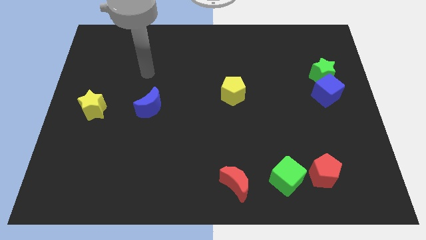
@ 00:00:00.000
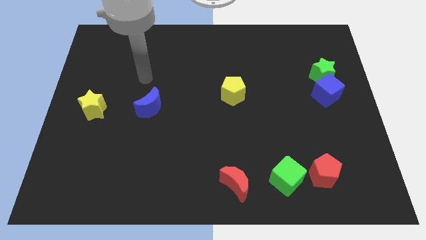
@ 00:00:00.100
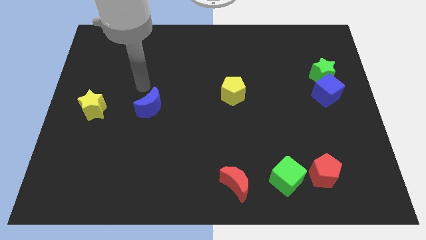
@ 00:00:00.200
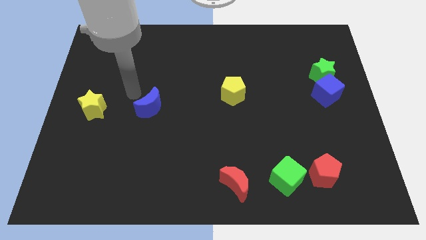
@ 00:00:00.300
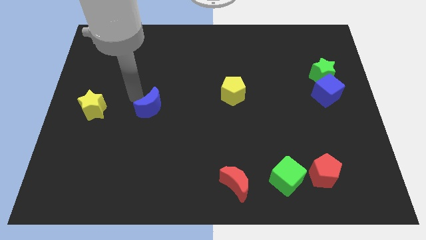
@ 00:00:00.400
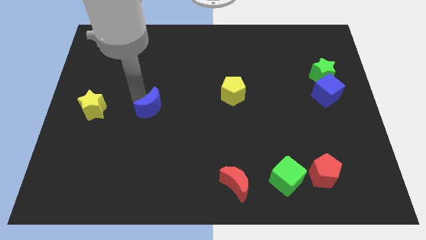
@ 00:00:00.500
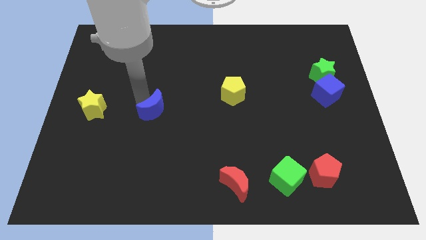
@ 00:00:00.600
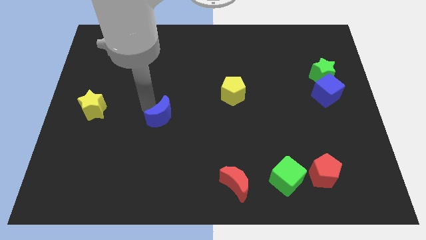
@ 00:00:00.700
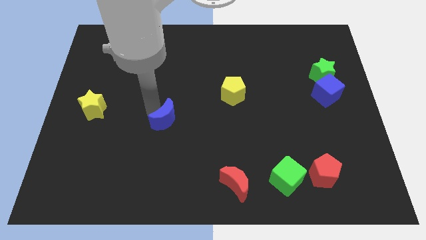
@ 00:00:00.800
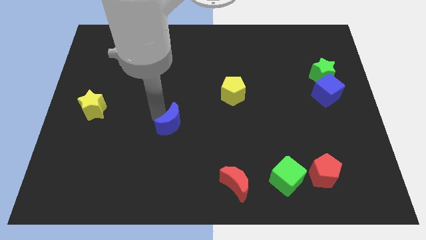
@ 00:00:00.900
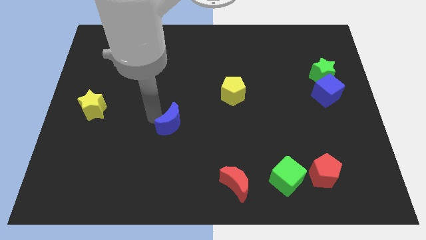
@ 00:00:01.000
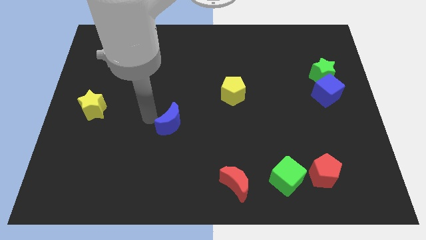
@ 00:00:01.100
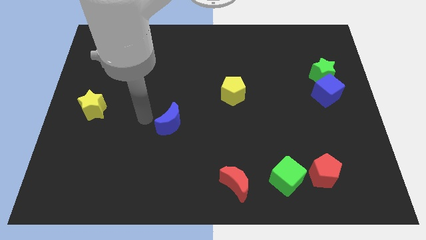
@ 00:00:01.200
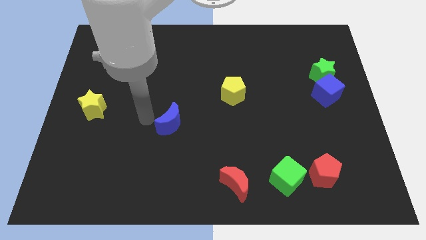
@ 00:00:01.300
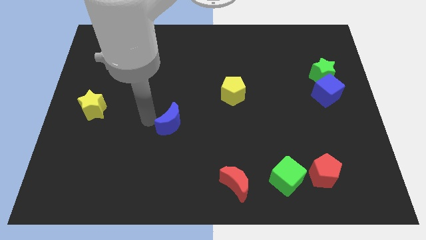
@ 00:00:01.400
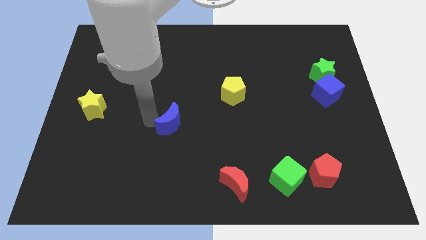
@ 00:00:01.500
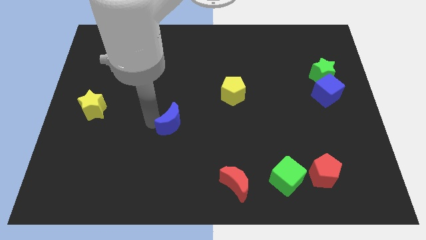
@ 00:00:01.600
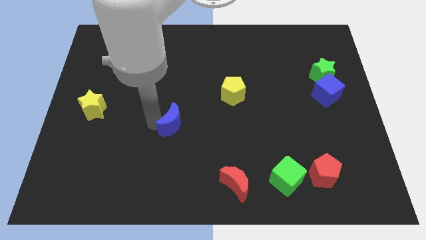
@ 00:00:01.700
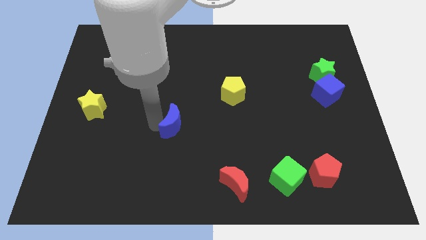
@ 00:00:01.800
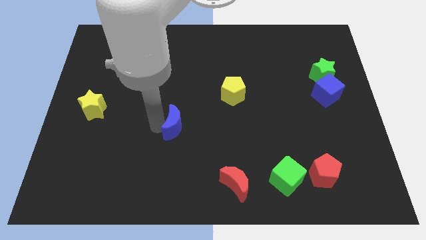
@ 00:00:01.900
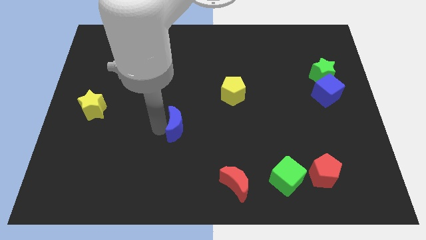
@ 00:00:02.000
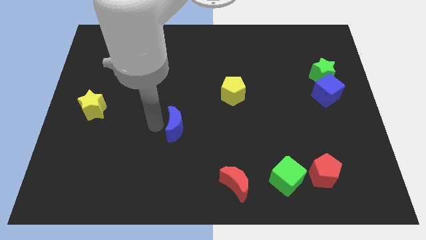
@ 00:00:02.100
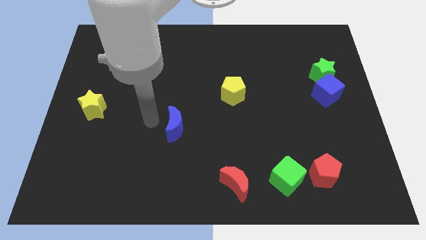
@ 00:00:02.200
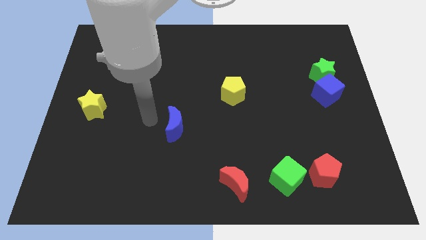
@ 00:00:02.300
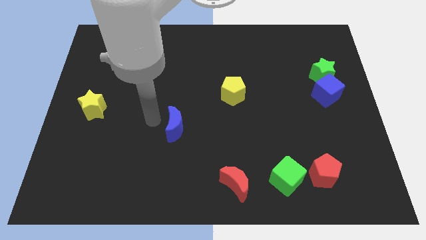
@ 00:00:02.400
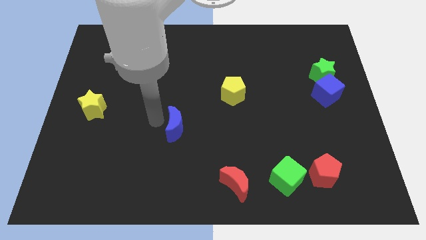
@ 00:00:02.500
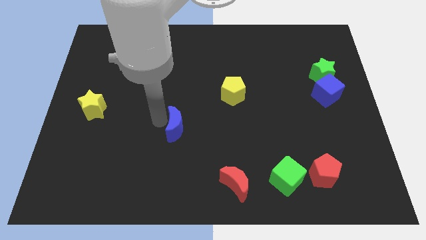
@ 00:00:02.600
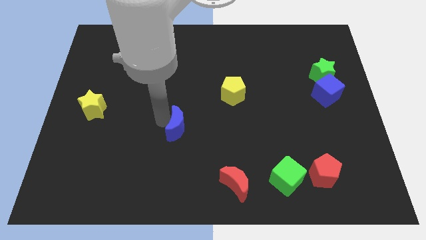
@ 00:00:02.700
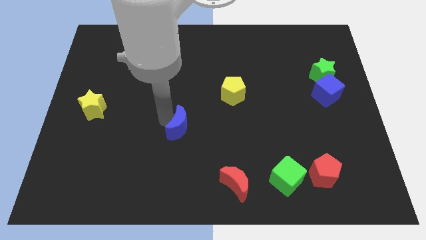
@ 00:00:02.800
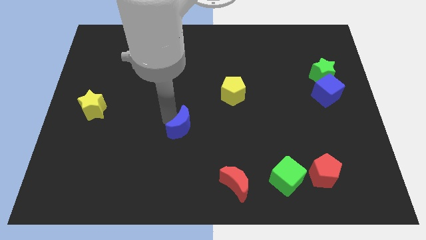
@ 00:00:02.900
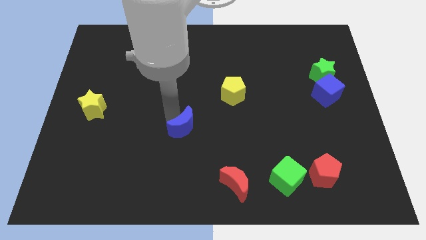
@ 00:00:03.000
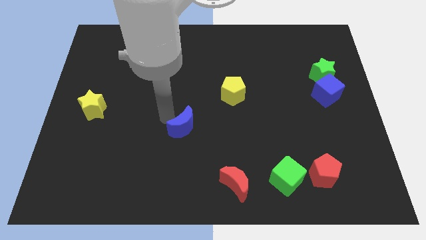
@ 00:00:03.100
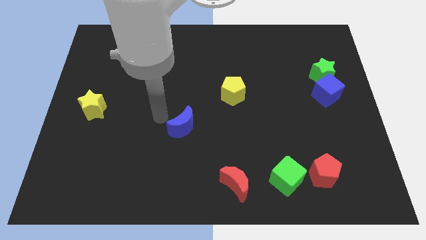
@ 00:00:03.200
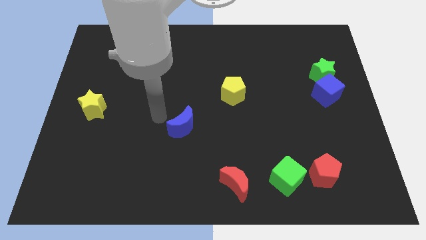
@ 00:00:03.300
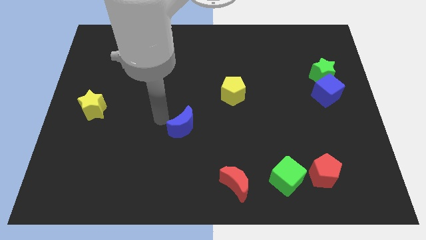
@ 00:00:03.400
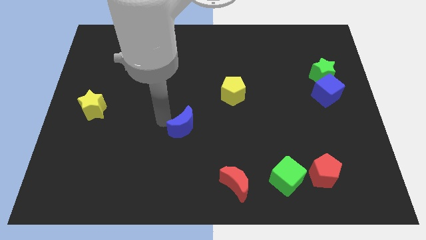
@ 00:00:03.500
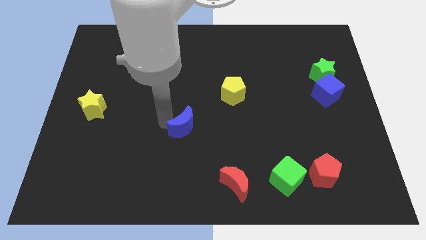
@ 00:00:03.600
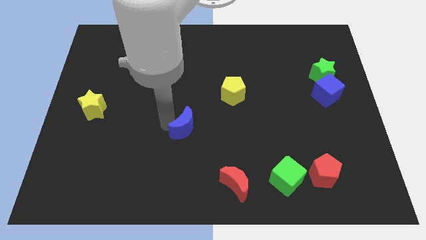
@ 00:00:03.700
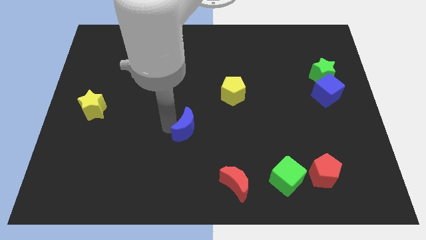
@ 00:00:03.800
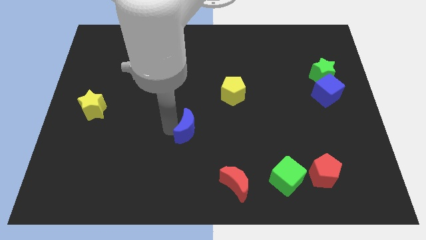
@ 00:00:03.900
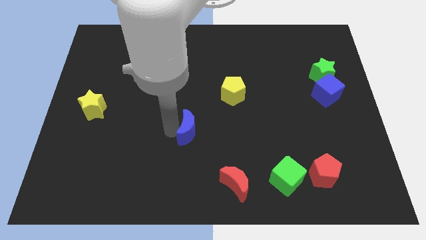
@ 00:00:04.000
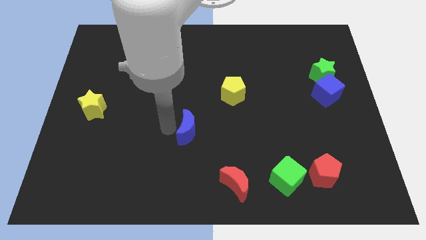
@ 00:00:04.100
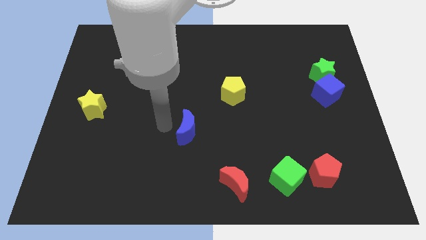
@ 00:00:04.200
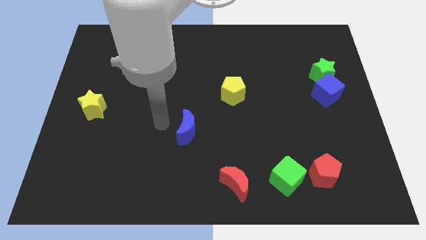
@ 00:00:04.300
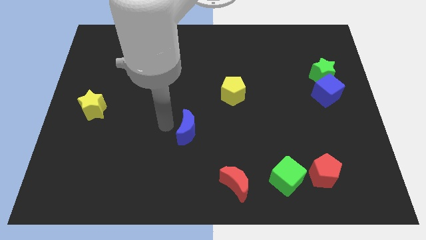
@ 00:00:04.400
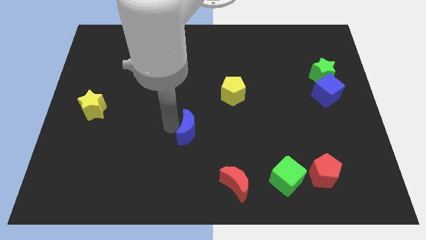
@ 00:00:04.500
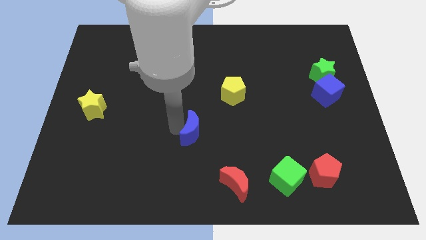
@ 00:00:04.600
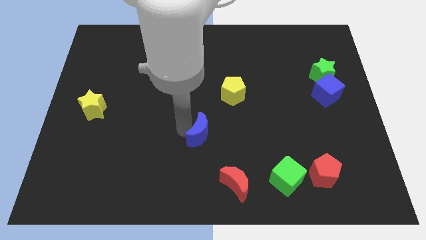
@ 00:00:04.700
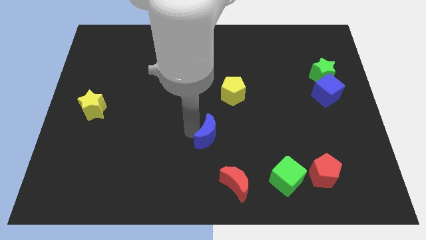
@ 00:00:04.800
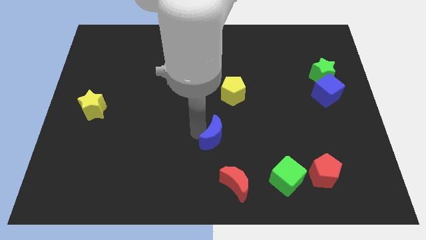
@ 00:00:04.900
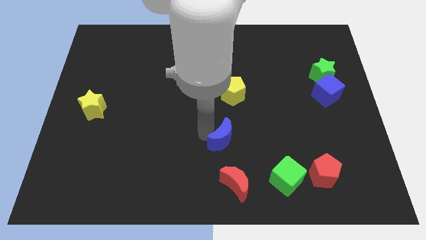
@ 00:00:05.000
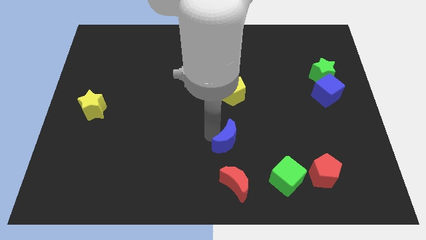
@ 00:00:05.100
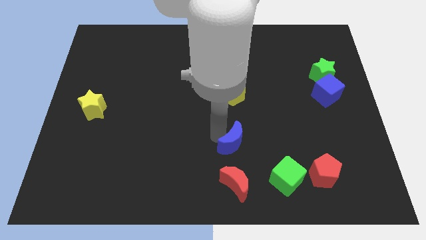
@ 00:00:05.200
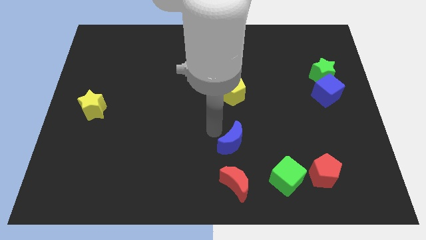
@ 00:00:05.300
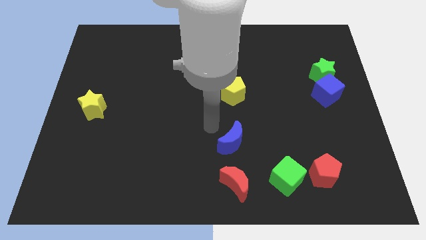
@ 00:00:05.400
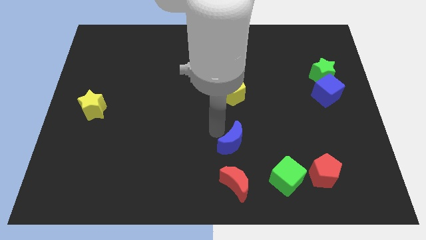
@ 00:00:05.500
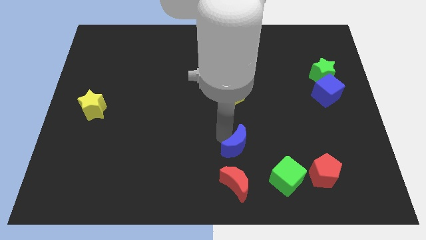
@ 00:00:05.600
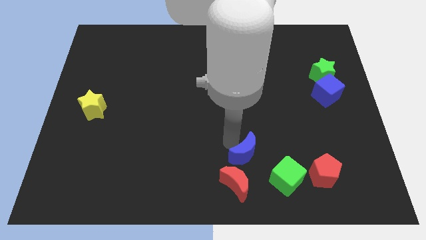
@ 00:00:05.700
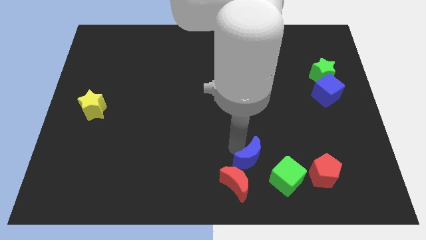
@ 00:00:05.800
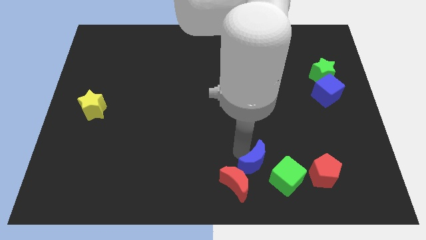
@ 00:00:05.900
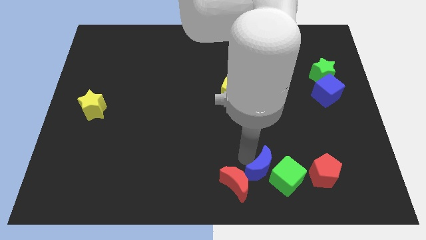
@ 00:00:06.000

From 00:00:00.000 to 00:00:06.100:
move the blue moon next to the green cube

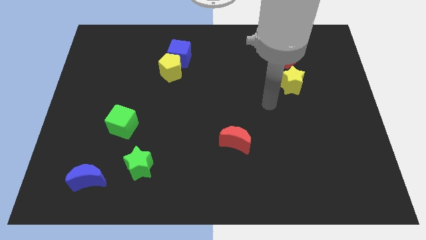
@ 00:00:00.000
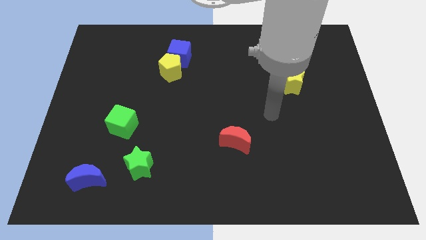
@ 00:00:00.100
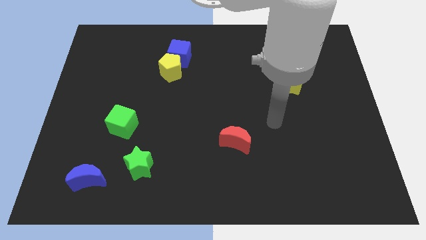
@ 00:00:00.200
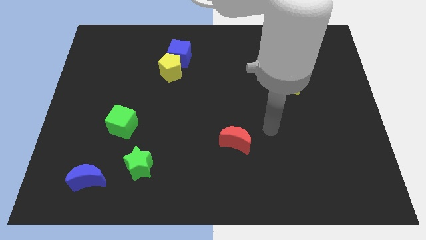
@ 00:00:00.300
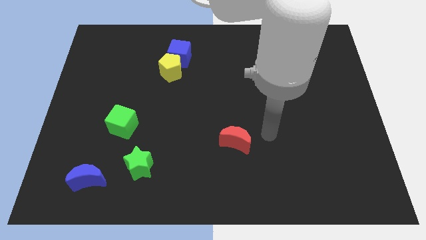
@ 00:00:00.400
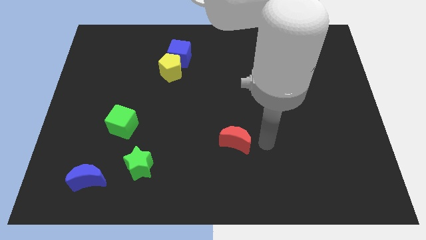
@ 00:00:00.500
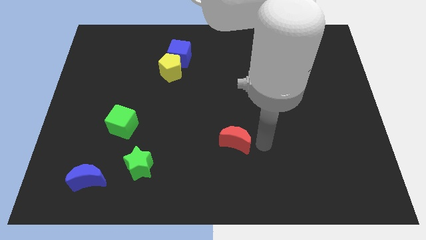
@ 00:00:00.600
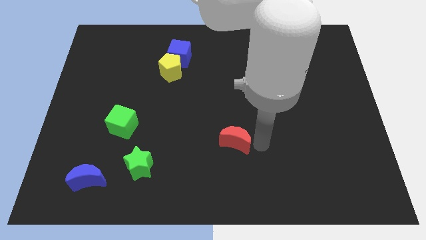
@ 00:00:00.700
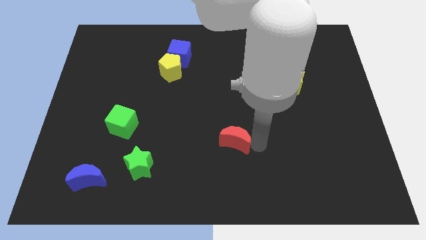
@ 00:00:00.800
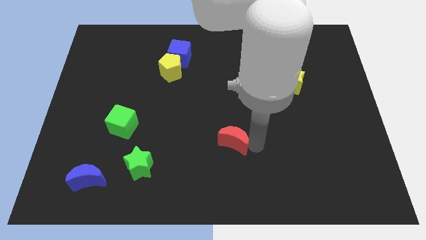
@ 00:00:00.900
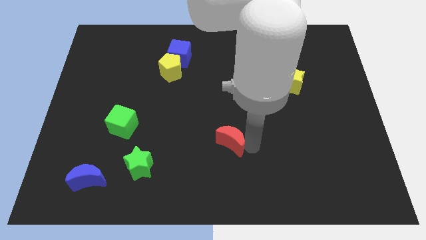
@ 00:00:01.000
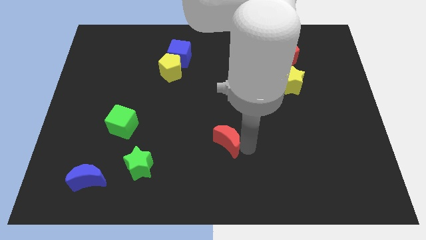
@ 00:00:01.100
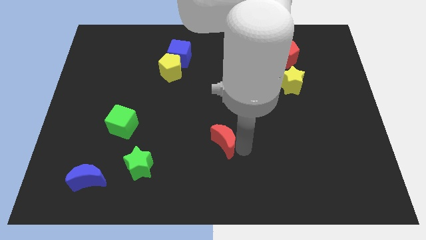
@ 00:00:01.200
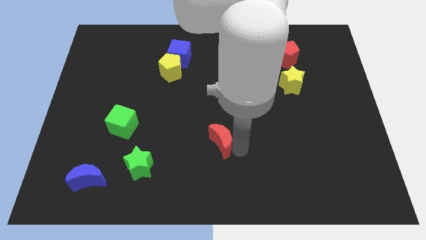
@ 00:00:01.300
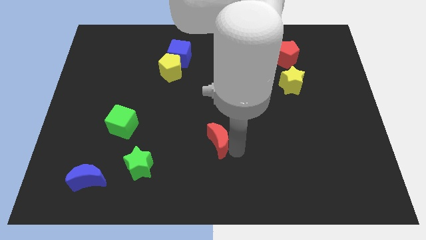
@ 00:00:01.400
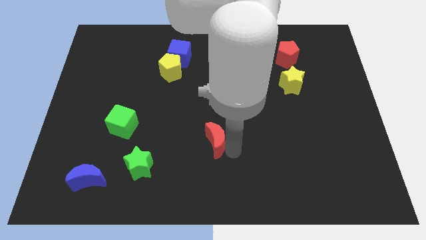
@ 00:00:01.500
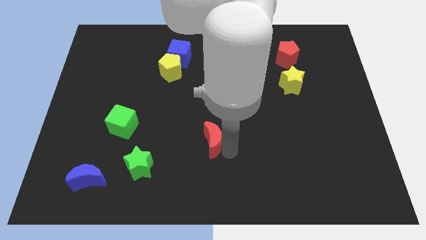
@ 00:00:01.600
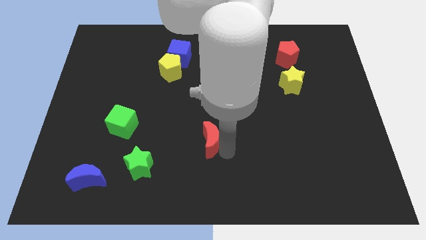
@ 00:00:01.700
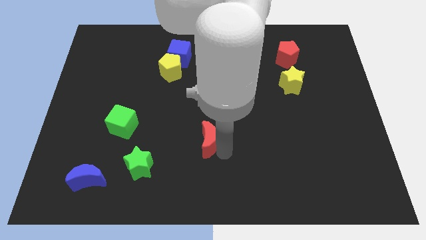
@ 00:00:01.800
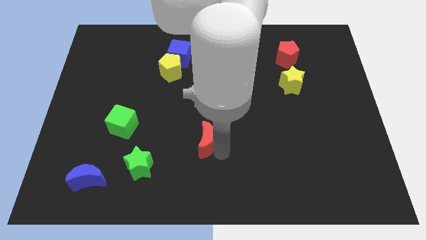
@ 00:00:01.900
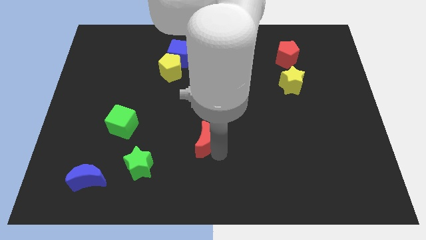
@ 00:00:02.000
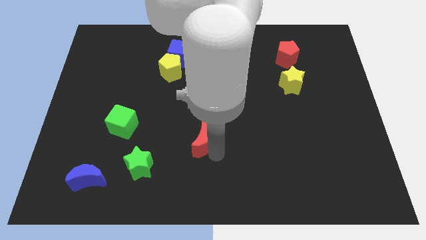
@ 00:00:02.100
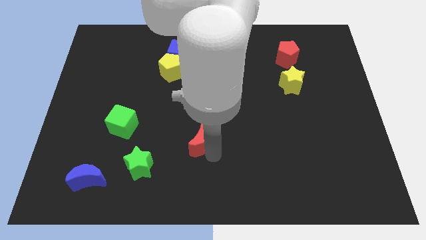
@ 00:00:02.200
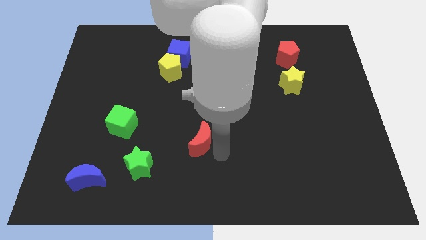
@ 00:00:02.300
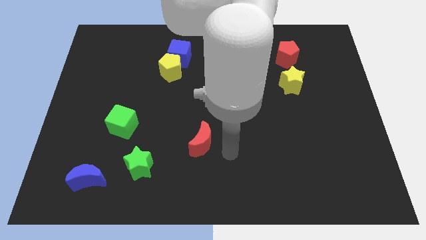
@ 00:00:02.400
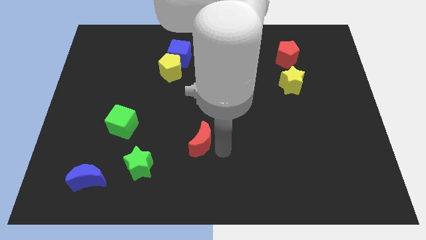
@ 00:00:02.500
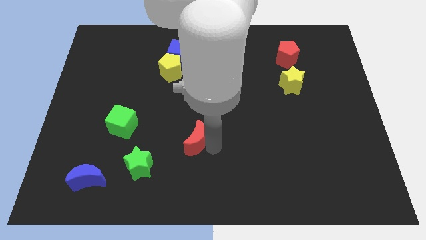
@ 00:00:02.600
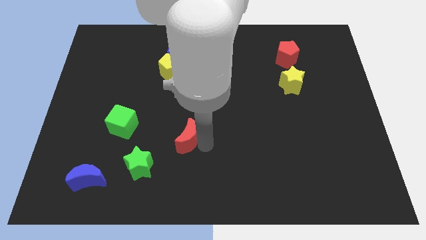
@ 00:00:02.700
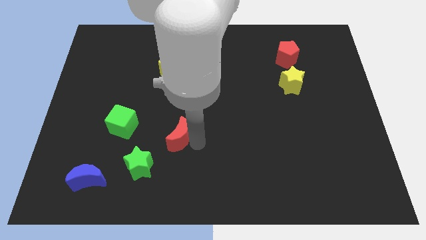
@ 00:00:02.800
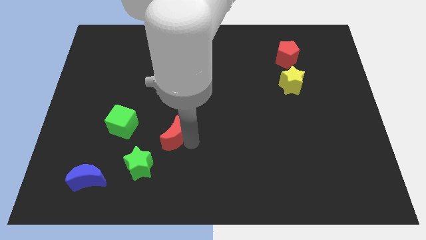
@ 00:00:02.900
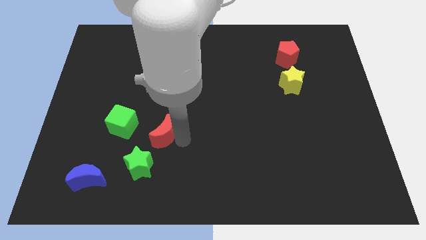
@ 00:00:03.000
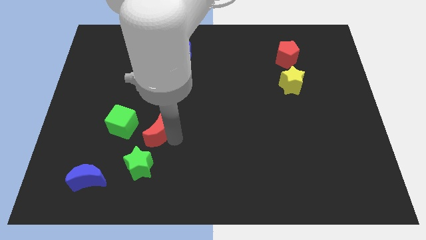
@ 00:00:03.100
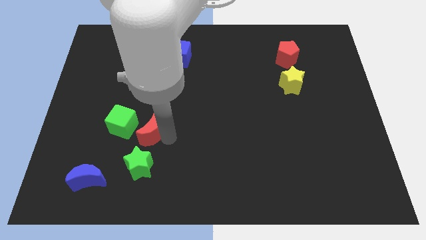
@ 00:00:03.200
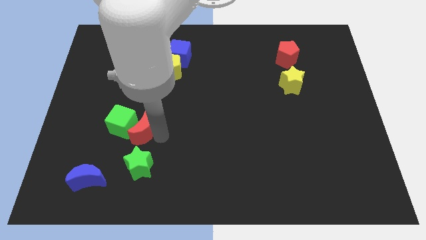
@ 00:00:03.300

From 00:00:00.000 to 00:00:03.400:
put the red moon next to the green cube
